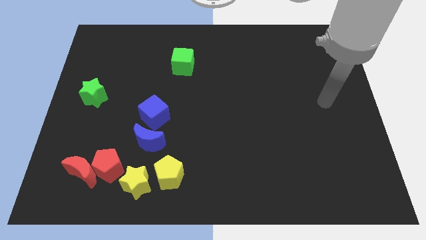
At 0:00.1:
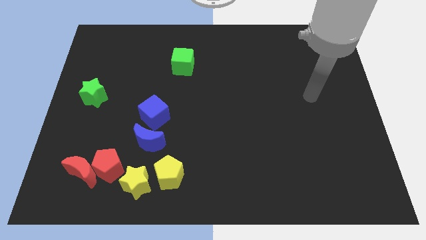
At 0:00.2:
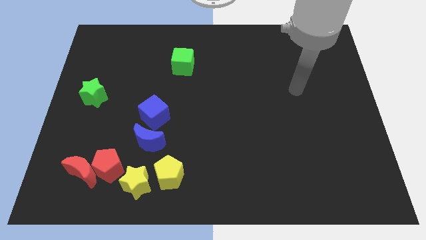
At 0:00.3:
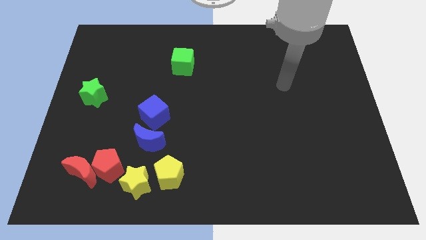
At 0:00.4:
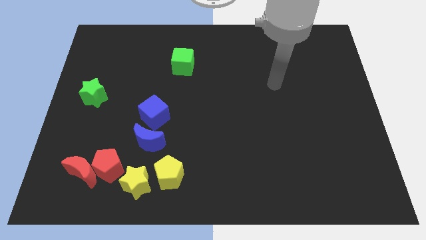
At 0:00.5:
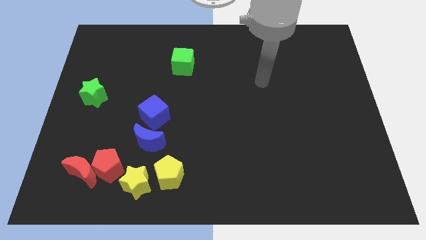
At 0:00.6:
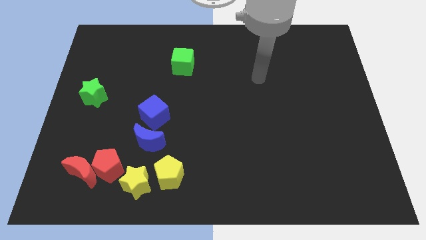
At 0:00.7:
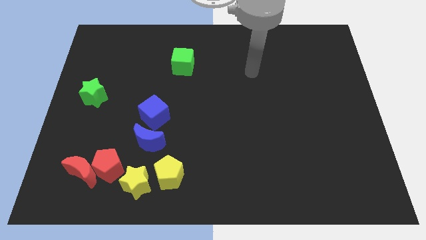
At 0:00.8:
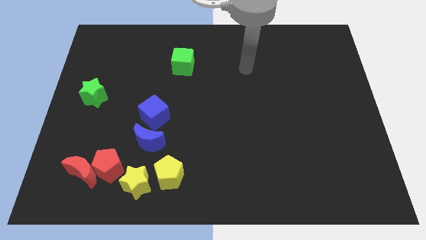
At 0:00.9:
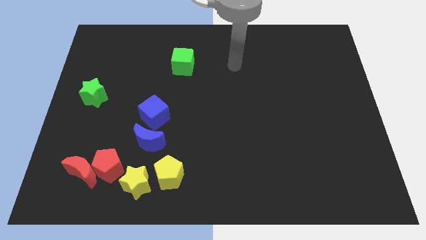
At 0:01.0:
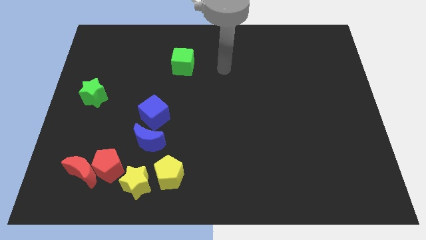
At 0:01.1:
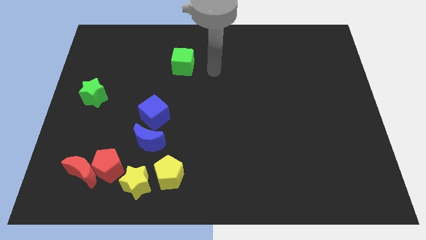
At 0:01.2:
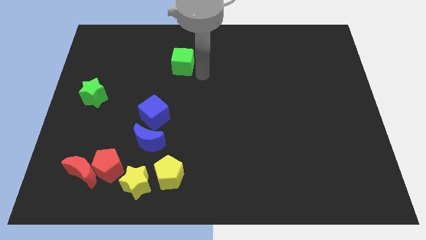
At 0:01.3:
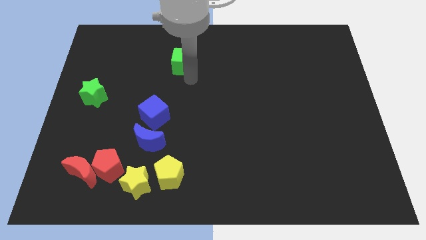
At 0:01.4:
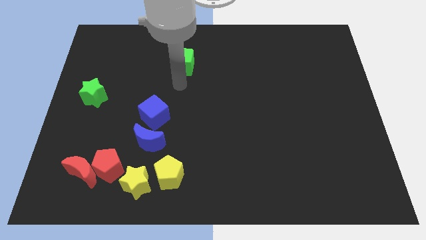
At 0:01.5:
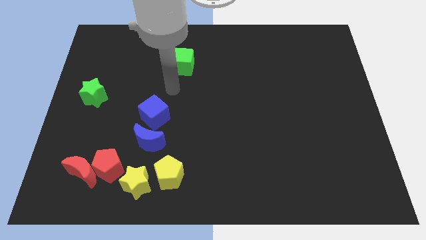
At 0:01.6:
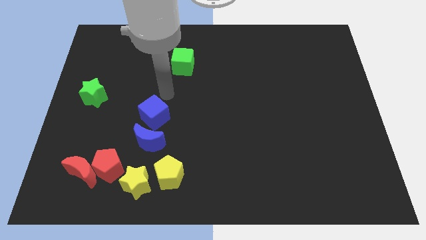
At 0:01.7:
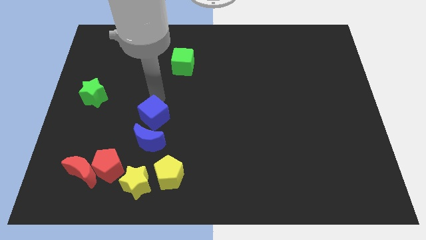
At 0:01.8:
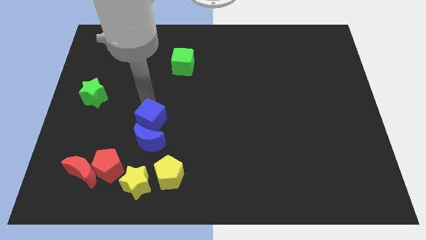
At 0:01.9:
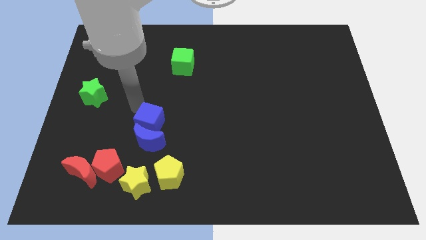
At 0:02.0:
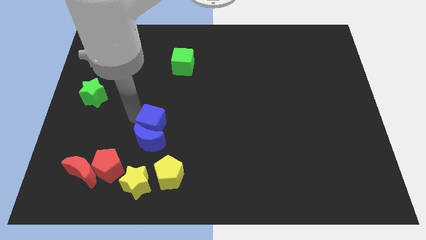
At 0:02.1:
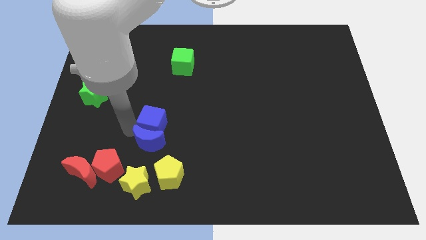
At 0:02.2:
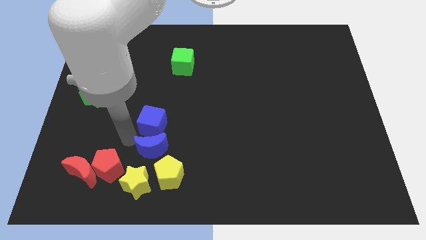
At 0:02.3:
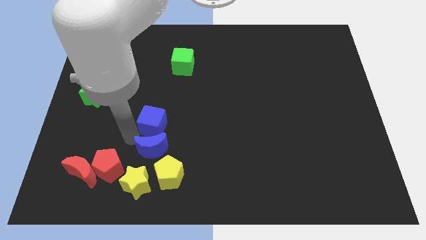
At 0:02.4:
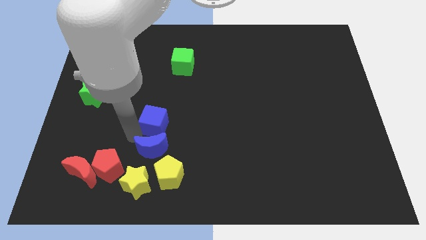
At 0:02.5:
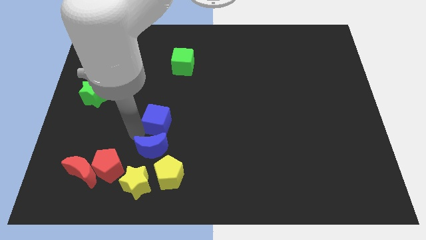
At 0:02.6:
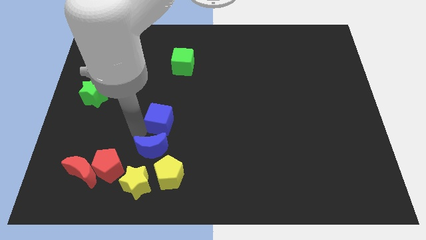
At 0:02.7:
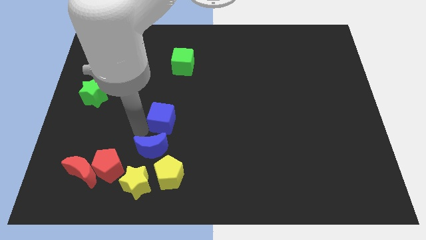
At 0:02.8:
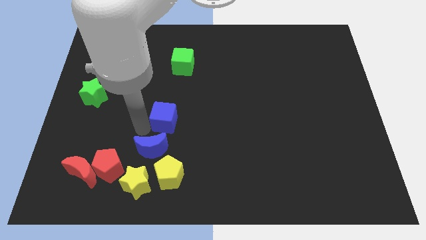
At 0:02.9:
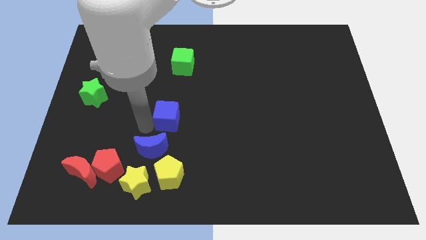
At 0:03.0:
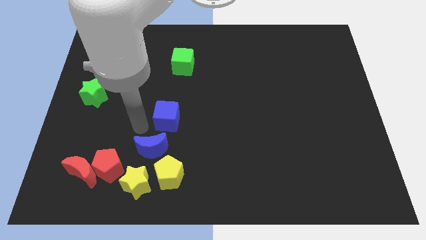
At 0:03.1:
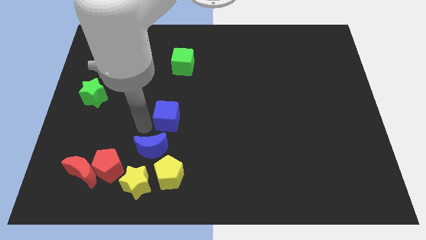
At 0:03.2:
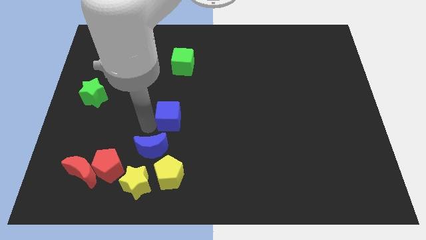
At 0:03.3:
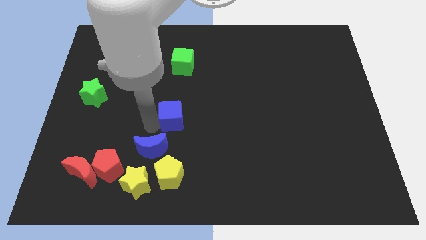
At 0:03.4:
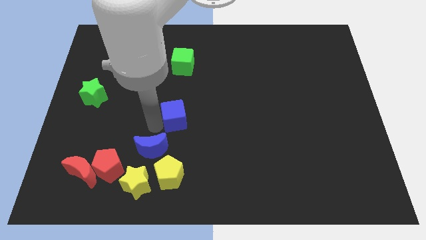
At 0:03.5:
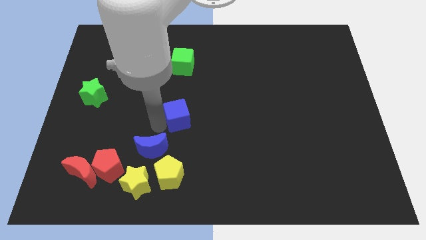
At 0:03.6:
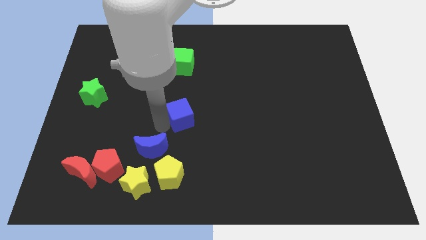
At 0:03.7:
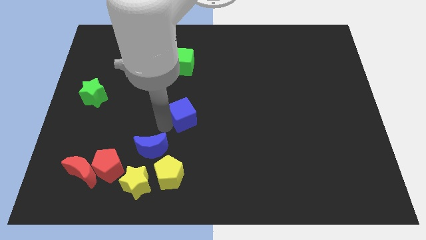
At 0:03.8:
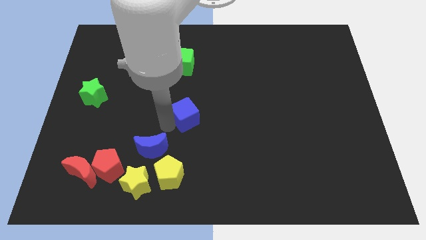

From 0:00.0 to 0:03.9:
slightly slide the blue cube right

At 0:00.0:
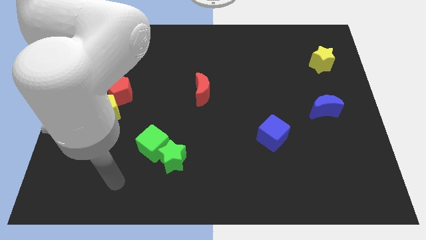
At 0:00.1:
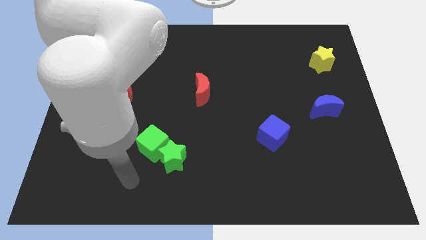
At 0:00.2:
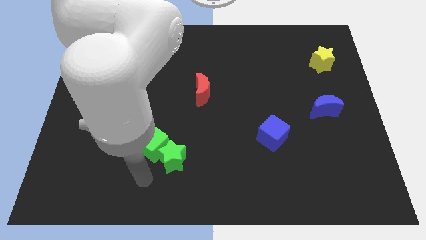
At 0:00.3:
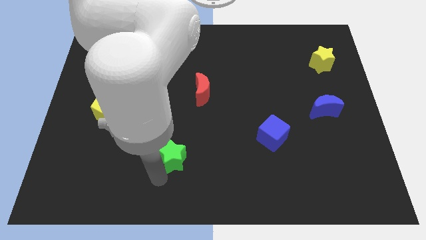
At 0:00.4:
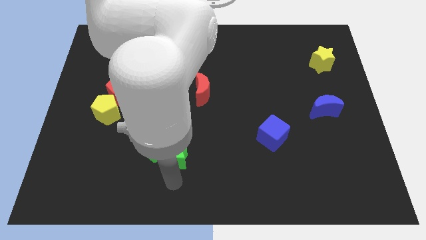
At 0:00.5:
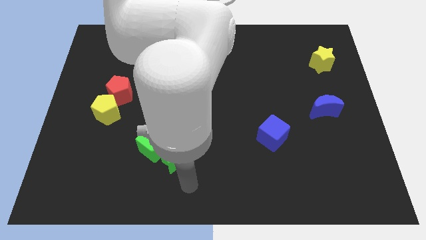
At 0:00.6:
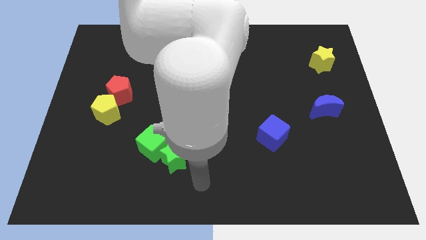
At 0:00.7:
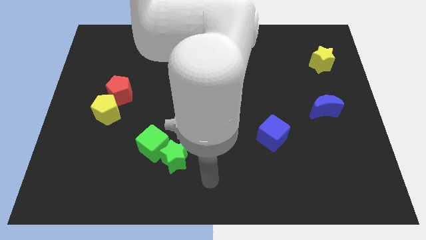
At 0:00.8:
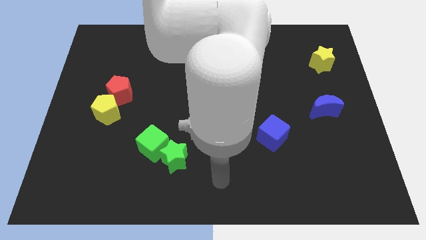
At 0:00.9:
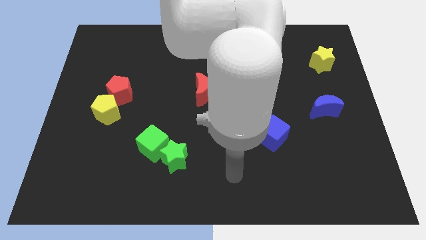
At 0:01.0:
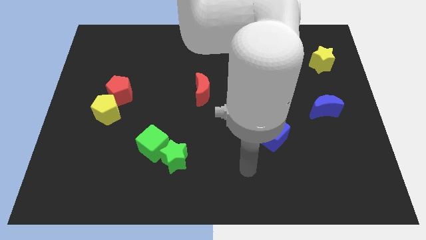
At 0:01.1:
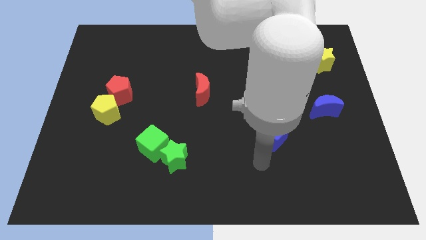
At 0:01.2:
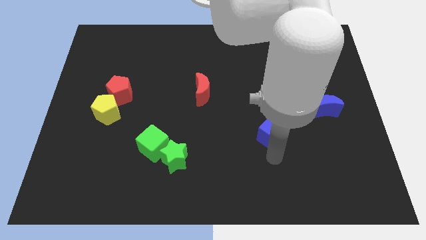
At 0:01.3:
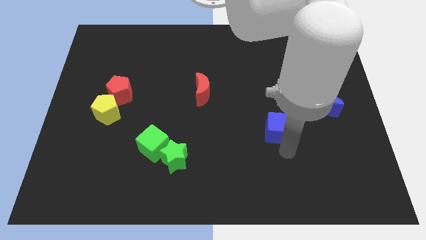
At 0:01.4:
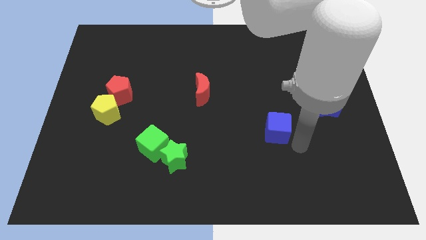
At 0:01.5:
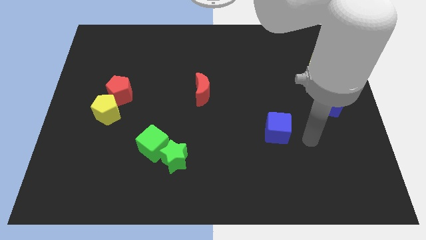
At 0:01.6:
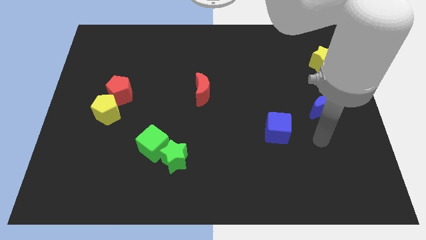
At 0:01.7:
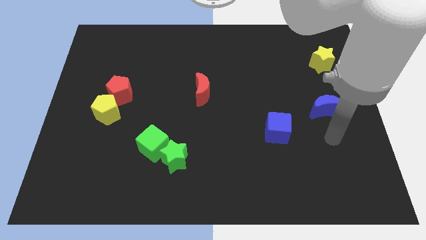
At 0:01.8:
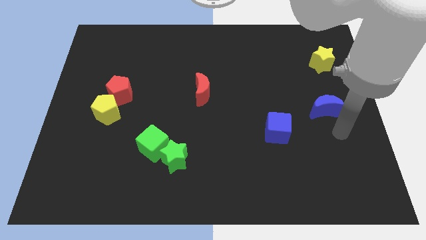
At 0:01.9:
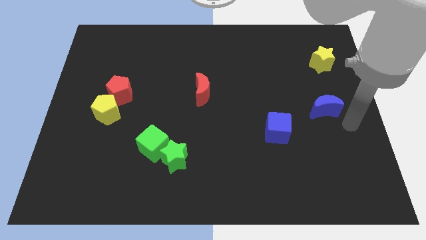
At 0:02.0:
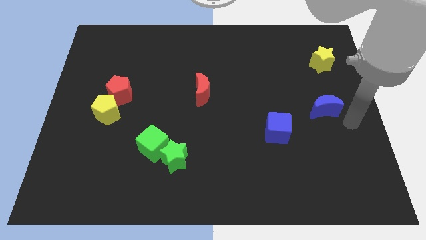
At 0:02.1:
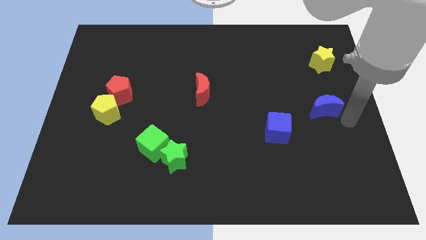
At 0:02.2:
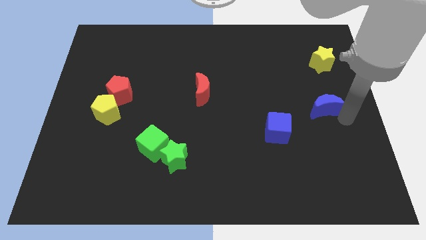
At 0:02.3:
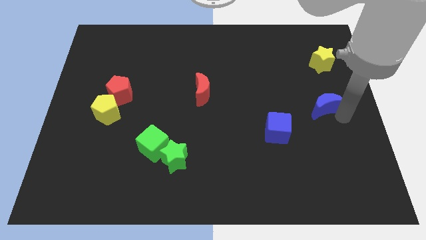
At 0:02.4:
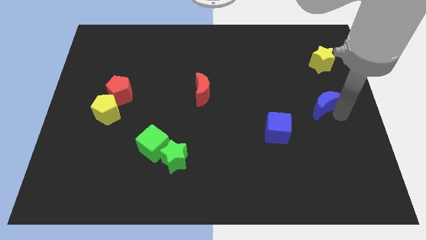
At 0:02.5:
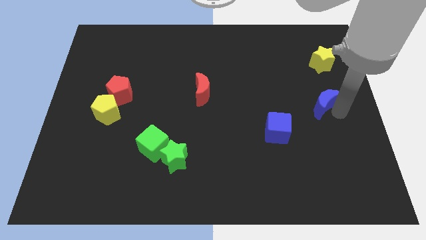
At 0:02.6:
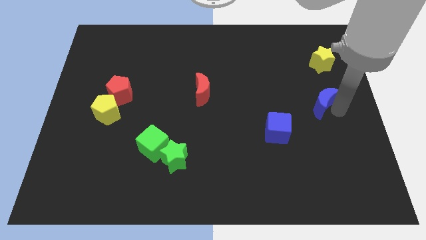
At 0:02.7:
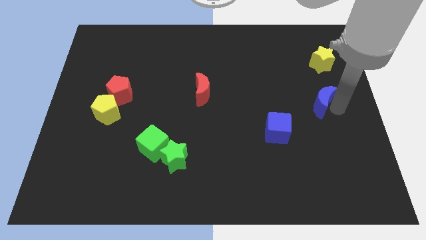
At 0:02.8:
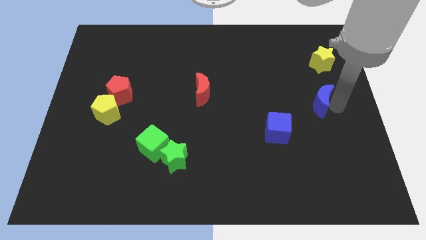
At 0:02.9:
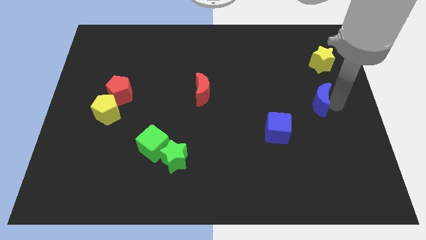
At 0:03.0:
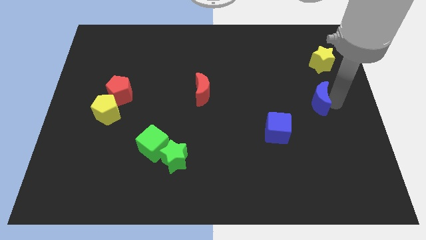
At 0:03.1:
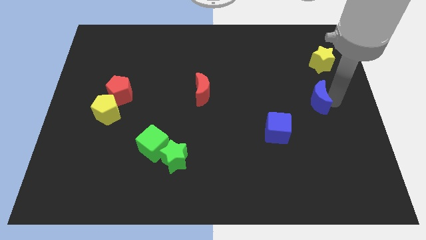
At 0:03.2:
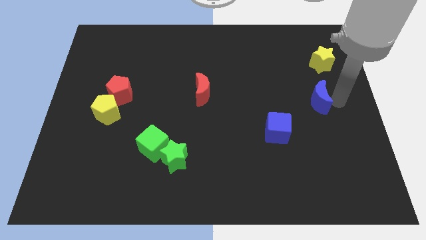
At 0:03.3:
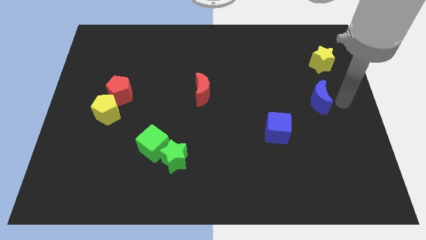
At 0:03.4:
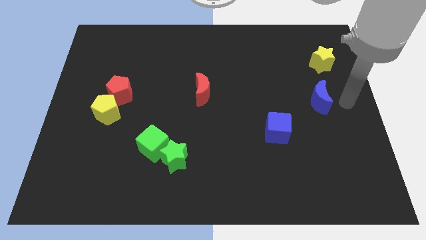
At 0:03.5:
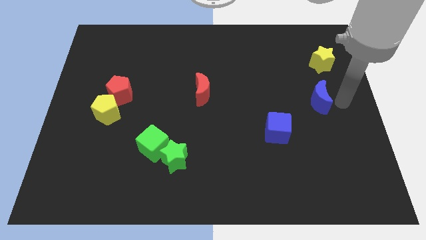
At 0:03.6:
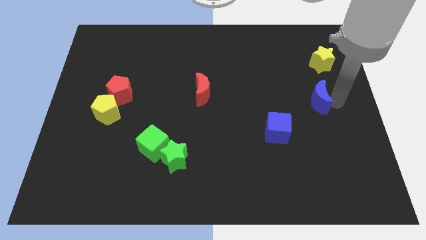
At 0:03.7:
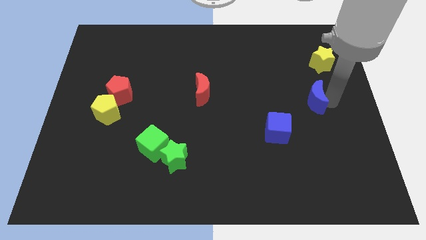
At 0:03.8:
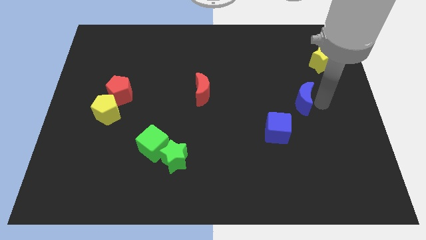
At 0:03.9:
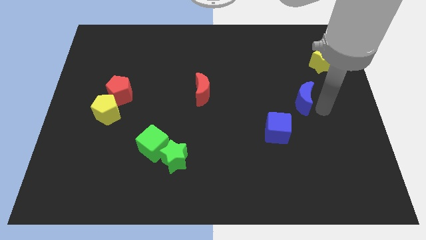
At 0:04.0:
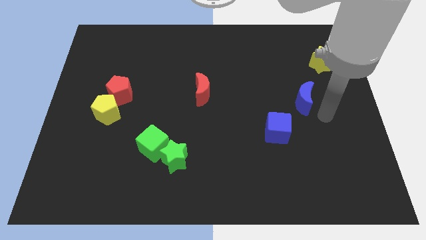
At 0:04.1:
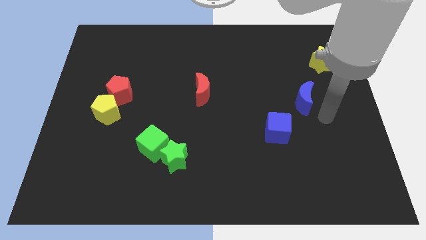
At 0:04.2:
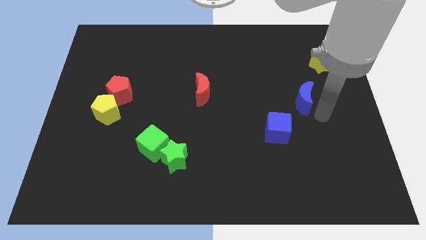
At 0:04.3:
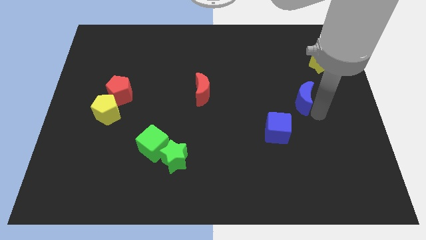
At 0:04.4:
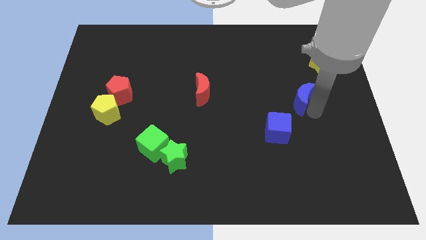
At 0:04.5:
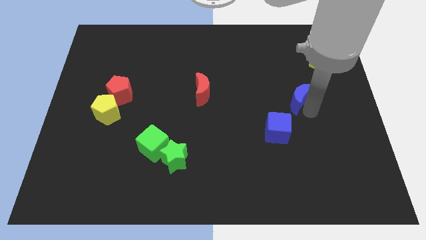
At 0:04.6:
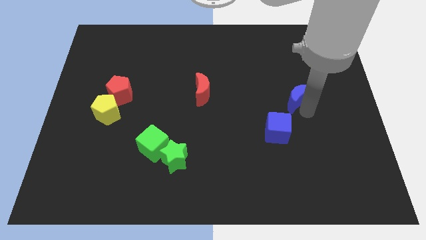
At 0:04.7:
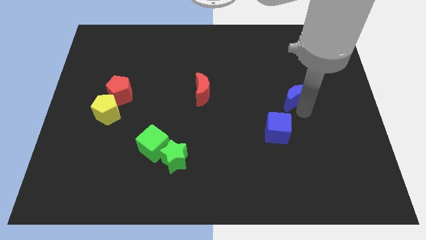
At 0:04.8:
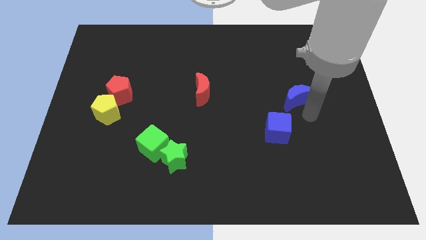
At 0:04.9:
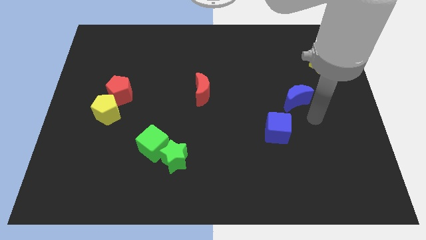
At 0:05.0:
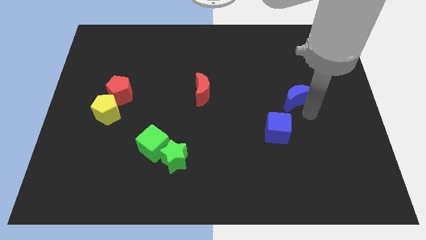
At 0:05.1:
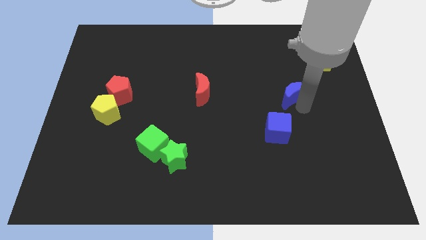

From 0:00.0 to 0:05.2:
push the blue moon upwards and left diagonally a little
